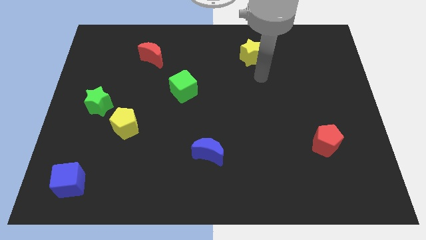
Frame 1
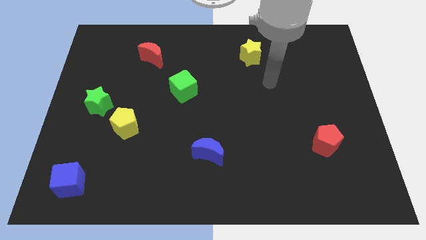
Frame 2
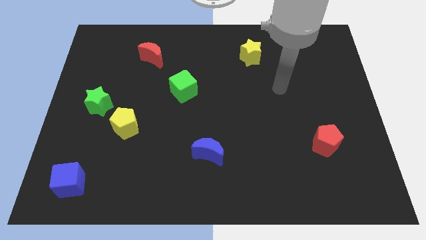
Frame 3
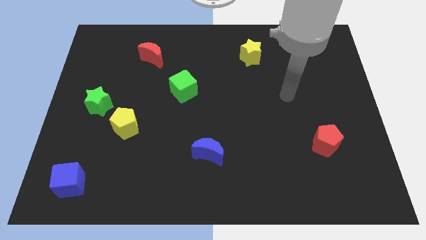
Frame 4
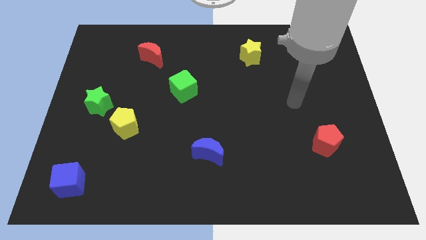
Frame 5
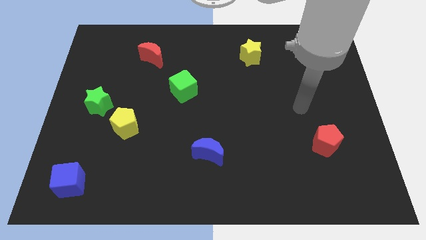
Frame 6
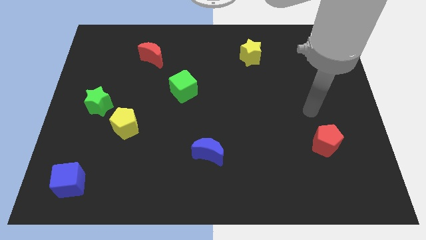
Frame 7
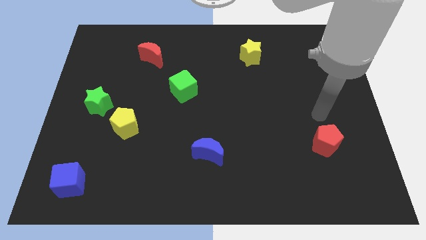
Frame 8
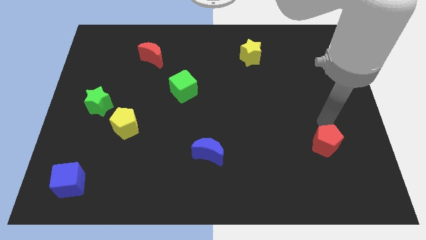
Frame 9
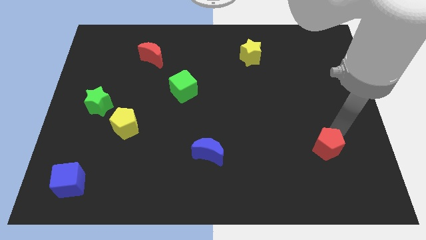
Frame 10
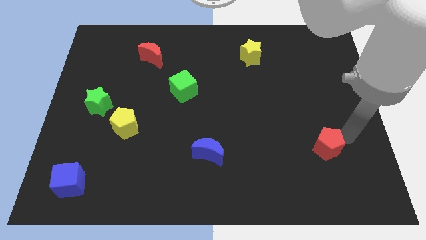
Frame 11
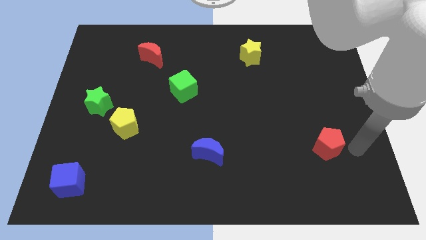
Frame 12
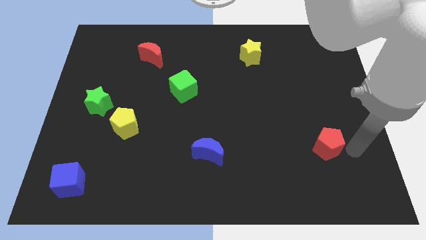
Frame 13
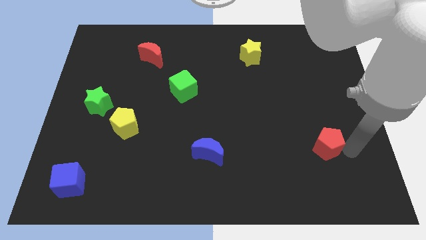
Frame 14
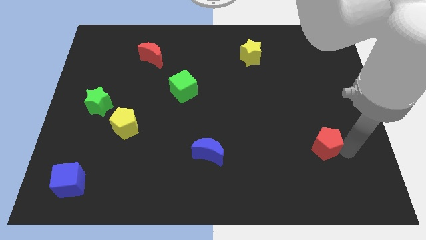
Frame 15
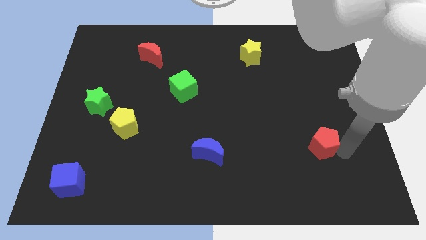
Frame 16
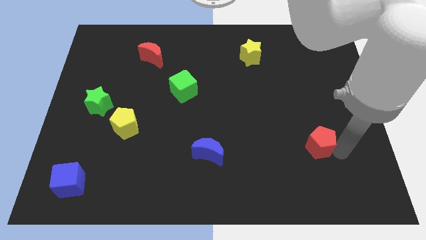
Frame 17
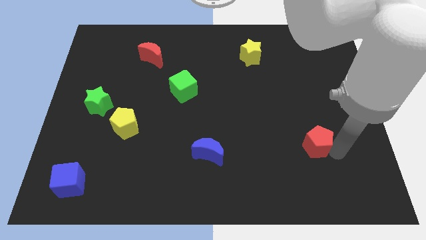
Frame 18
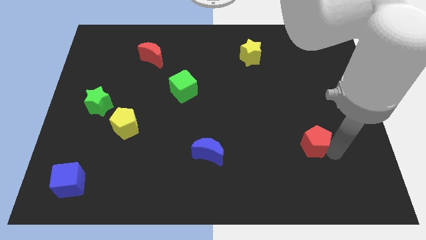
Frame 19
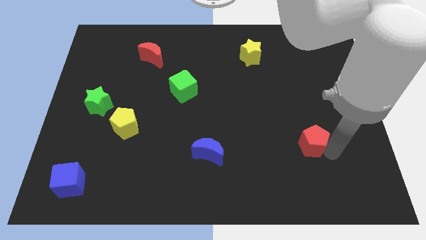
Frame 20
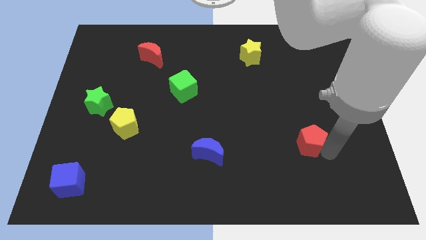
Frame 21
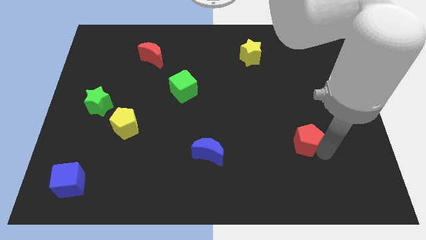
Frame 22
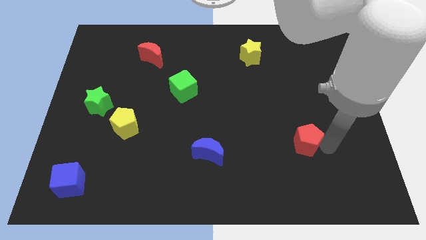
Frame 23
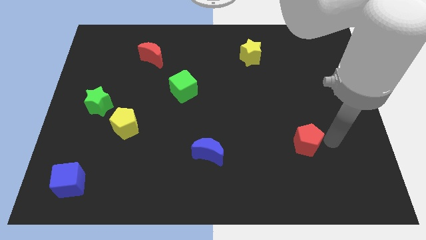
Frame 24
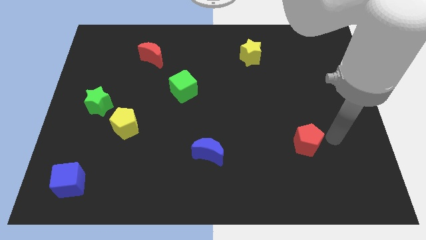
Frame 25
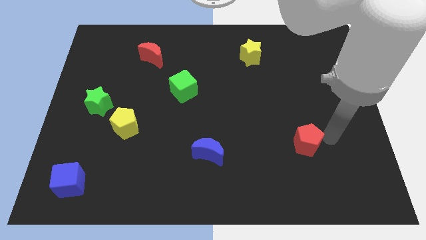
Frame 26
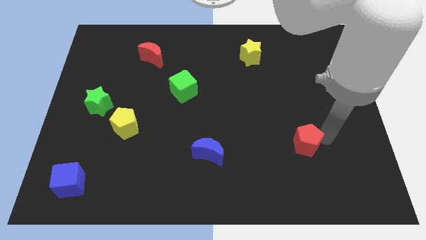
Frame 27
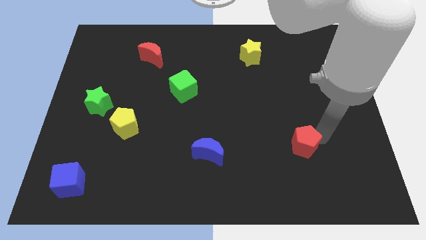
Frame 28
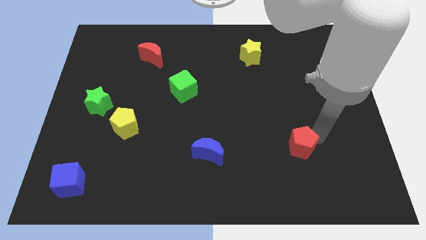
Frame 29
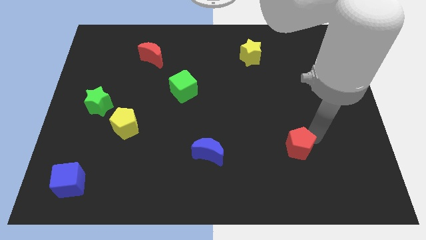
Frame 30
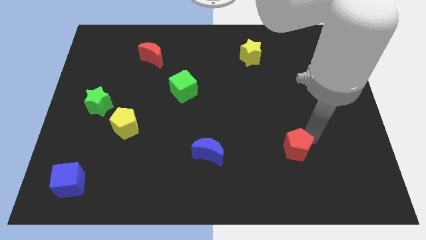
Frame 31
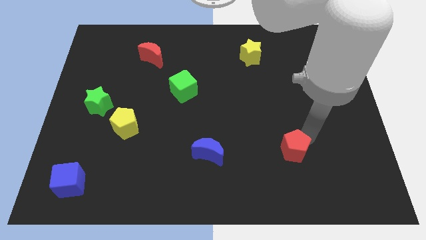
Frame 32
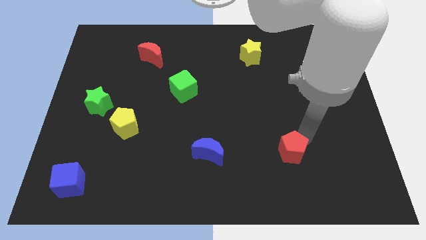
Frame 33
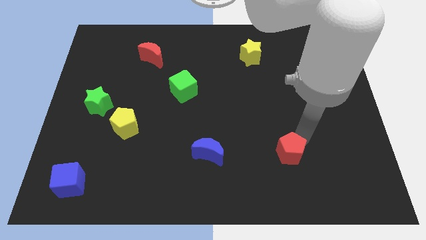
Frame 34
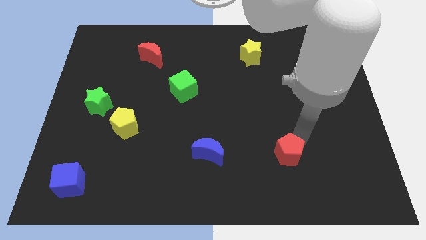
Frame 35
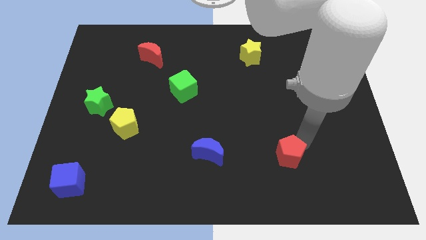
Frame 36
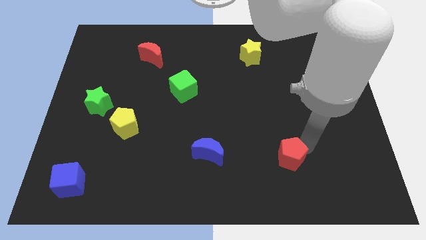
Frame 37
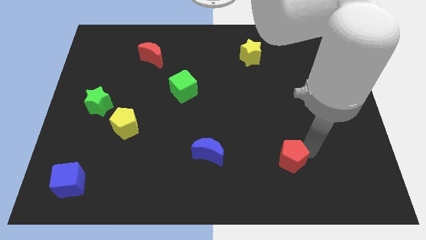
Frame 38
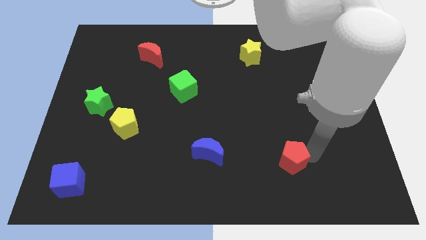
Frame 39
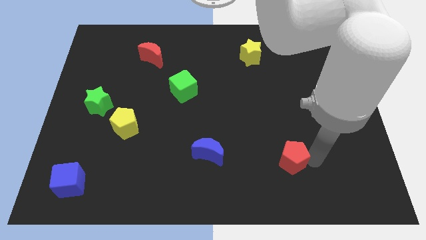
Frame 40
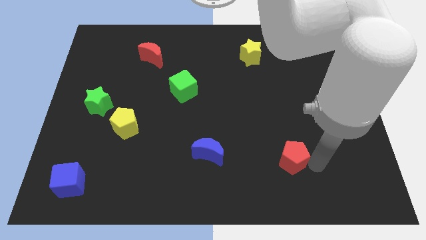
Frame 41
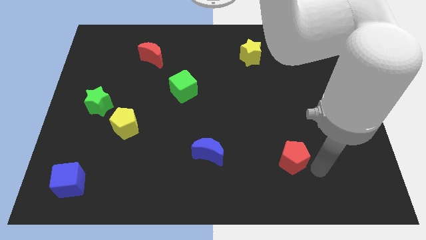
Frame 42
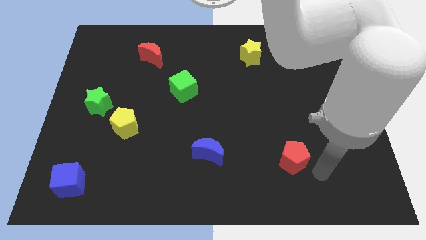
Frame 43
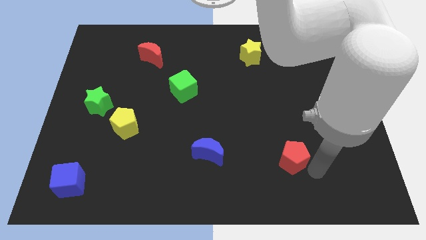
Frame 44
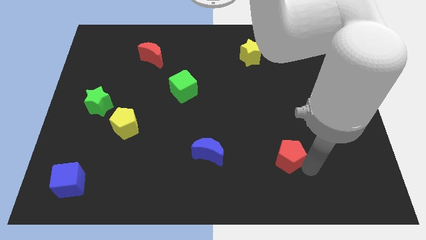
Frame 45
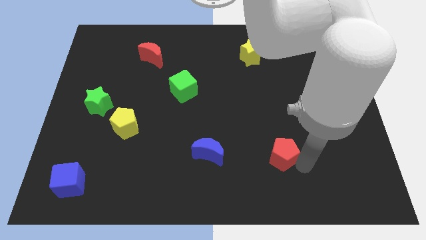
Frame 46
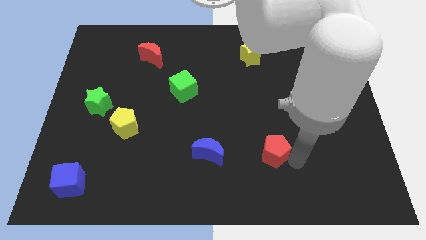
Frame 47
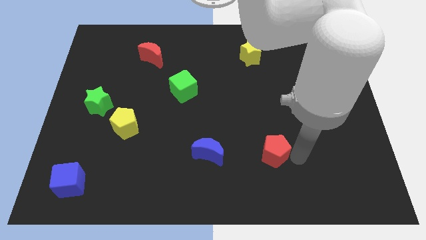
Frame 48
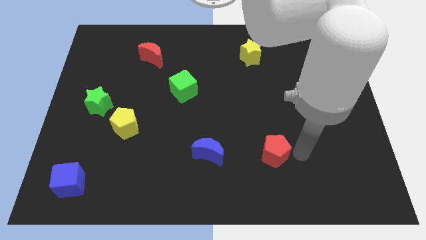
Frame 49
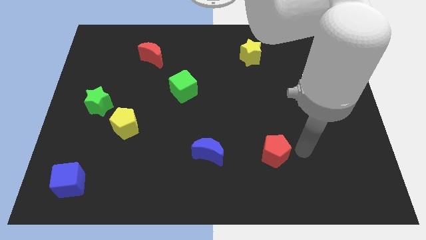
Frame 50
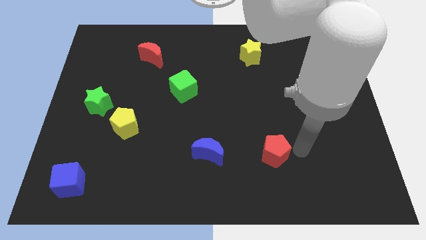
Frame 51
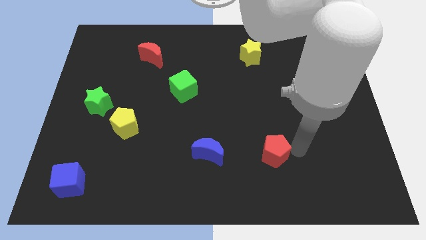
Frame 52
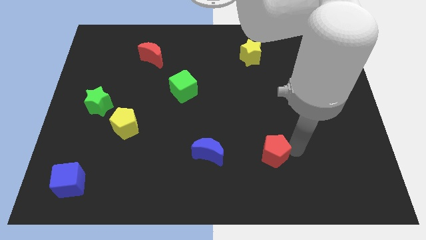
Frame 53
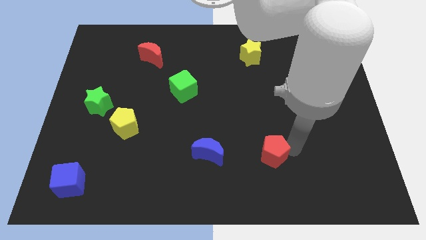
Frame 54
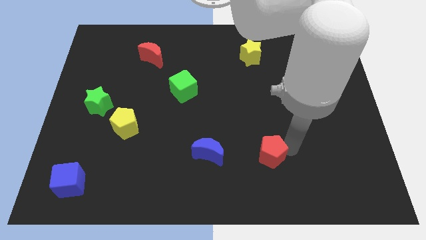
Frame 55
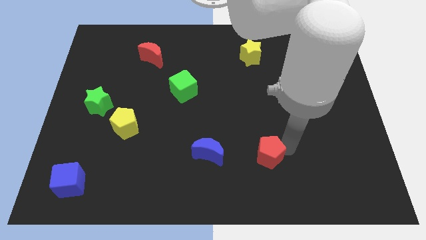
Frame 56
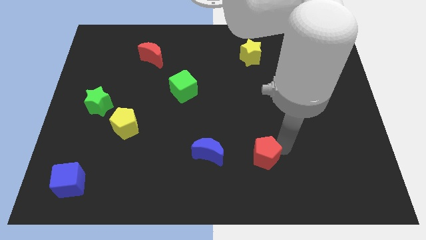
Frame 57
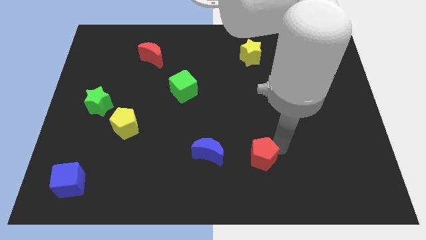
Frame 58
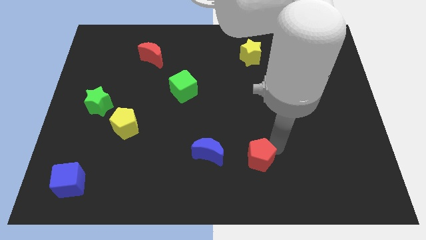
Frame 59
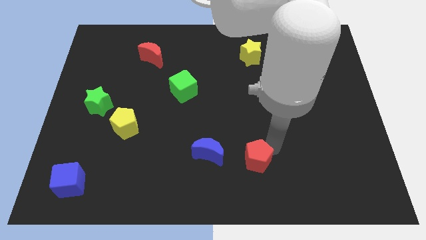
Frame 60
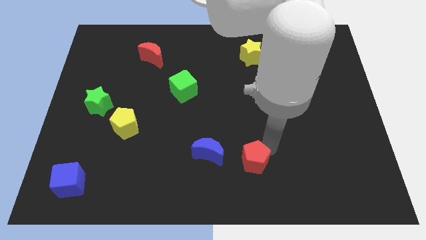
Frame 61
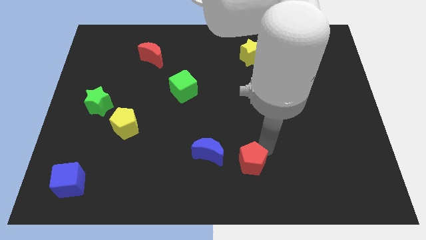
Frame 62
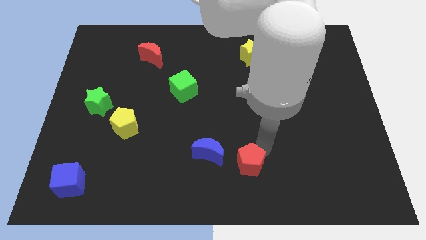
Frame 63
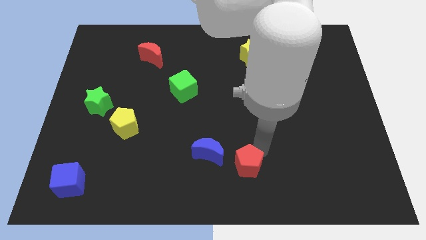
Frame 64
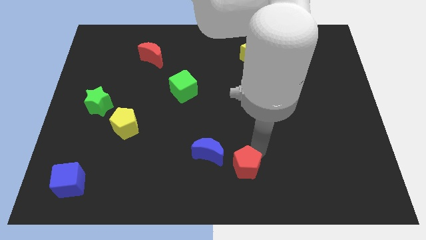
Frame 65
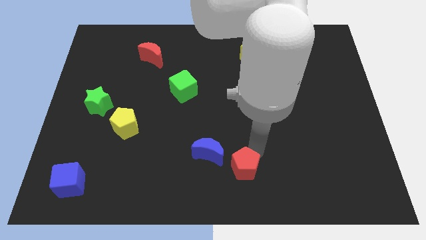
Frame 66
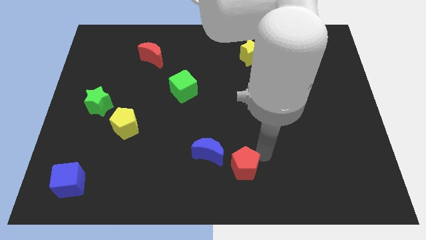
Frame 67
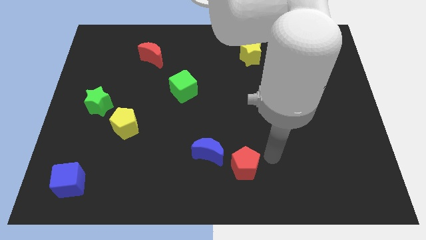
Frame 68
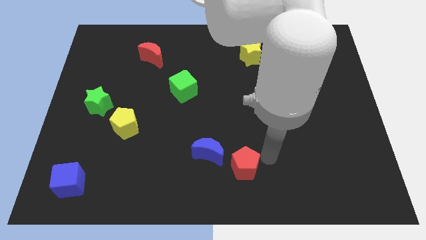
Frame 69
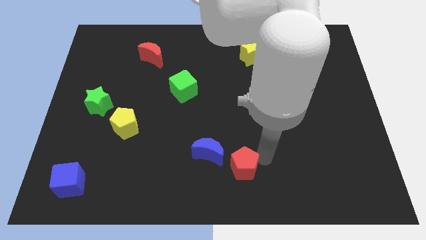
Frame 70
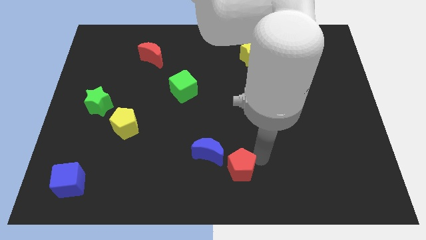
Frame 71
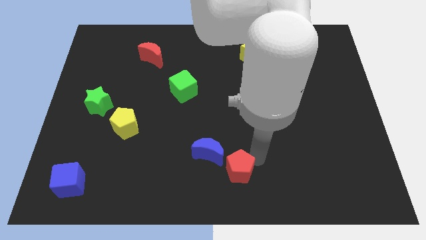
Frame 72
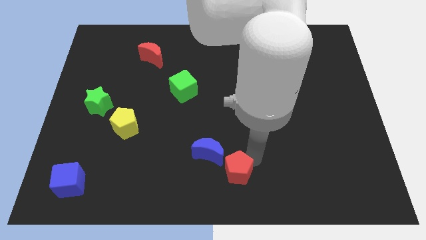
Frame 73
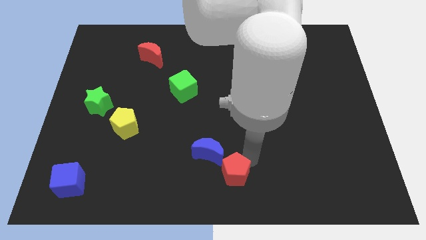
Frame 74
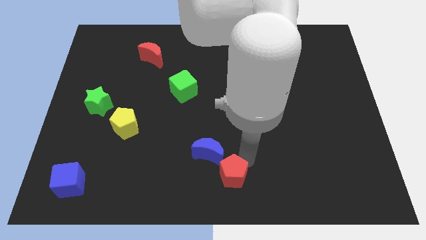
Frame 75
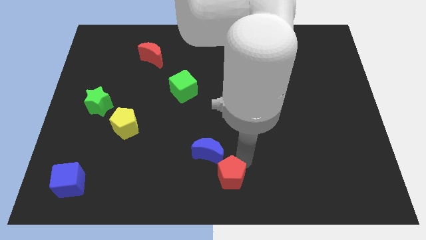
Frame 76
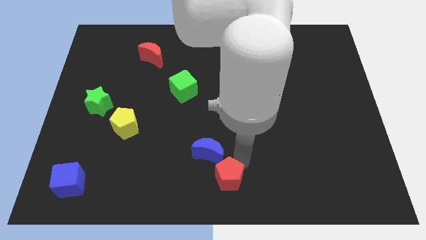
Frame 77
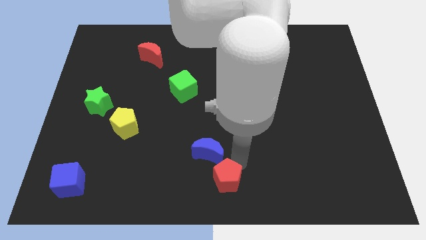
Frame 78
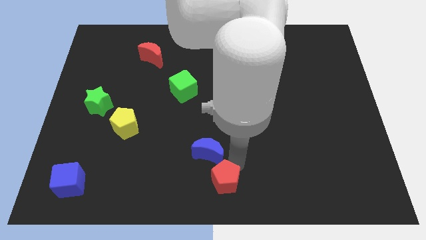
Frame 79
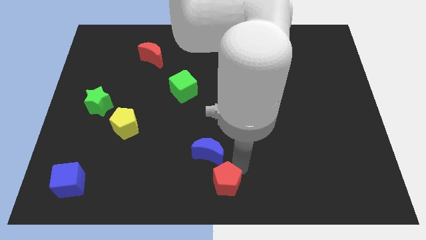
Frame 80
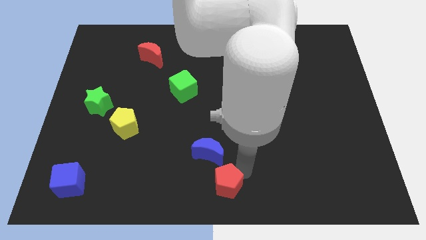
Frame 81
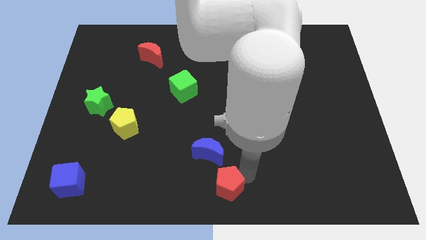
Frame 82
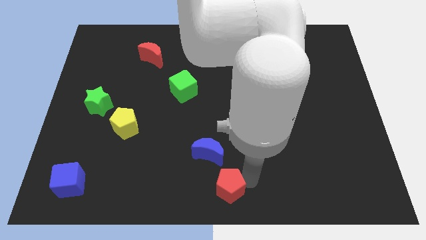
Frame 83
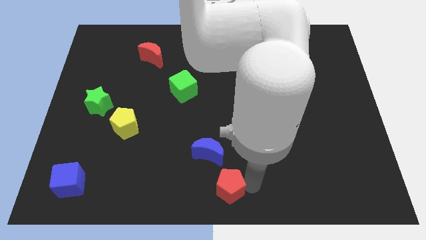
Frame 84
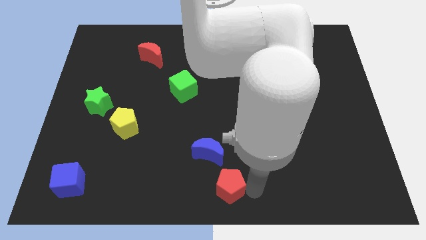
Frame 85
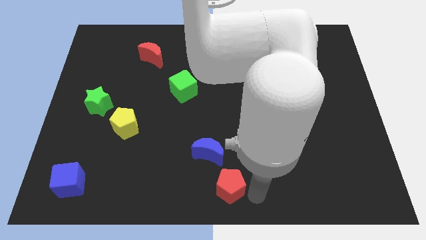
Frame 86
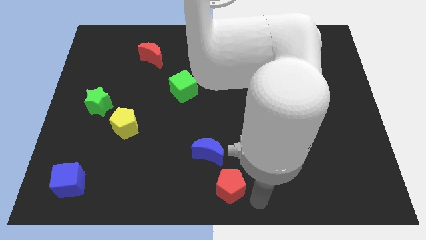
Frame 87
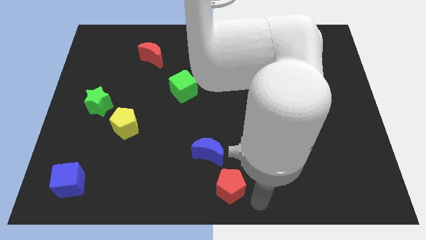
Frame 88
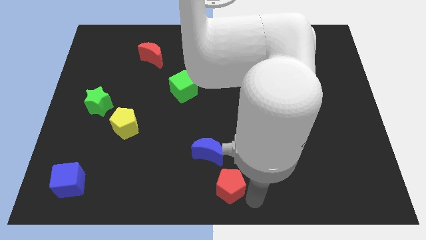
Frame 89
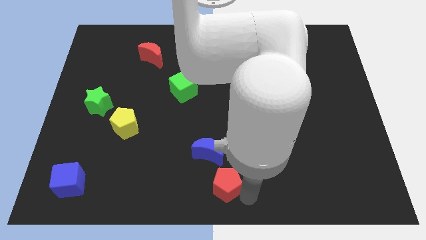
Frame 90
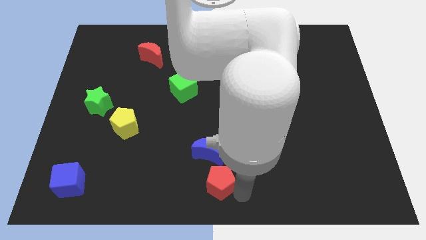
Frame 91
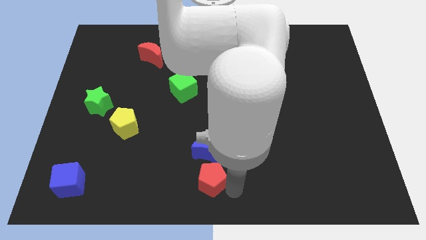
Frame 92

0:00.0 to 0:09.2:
move the red pentagon to the bottom left side of the blue moon
